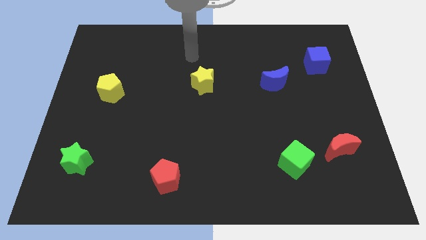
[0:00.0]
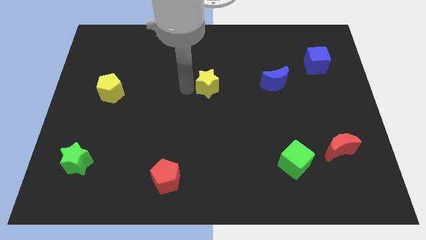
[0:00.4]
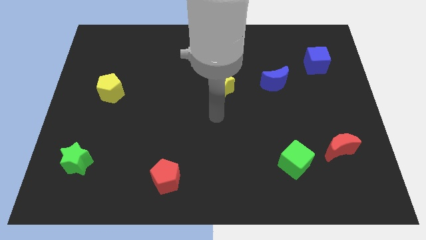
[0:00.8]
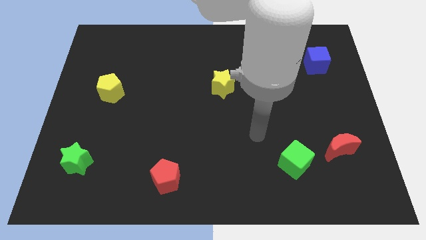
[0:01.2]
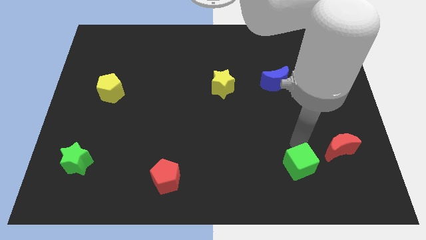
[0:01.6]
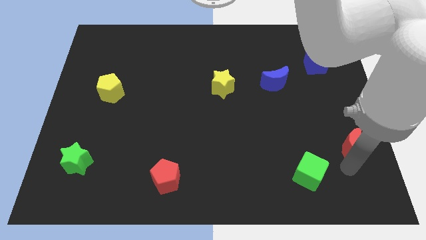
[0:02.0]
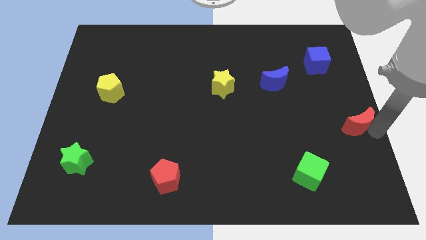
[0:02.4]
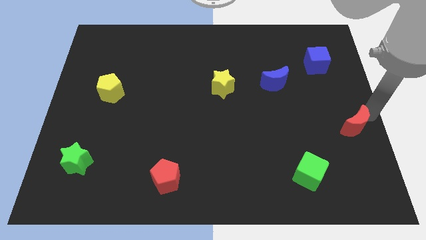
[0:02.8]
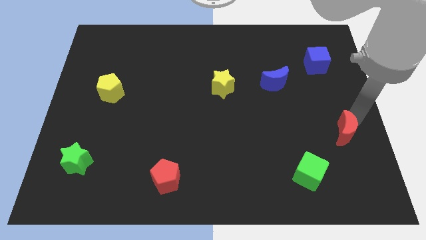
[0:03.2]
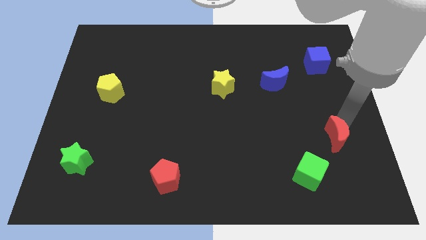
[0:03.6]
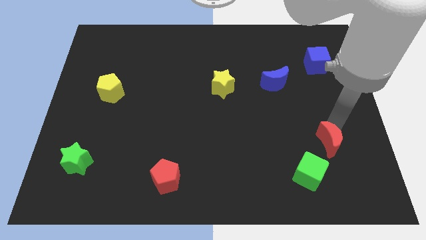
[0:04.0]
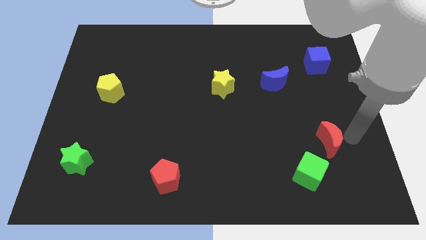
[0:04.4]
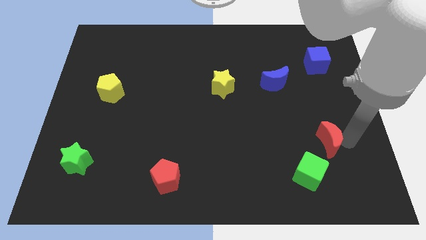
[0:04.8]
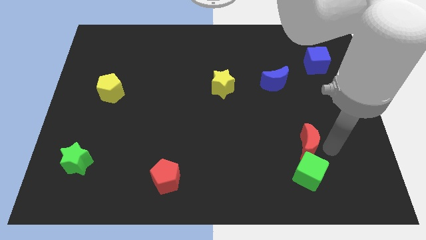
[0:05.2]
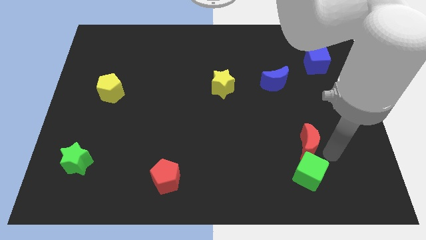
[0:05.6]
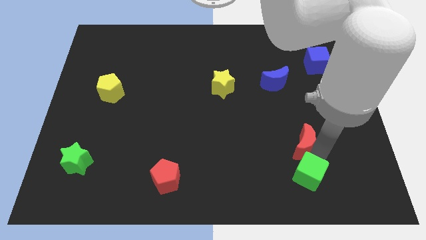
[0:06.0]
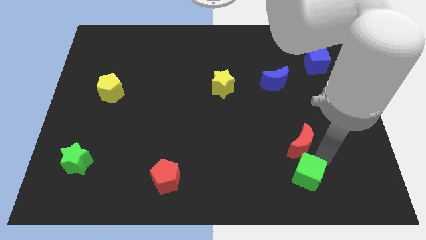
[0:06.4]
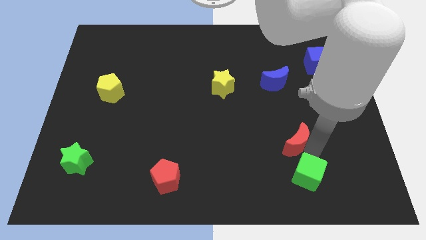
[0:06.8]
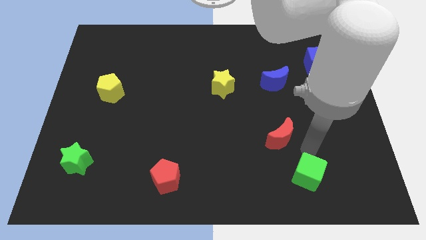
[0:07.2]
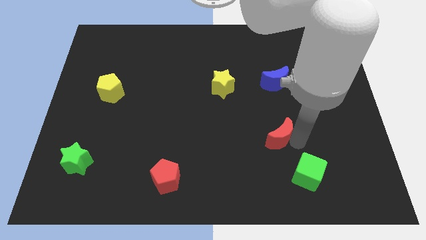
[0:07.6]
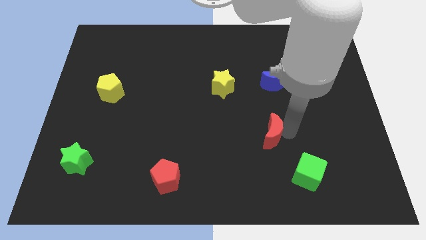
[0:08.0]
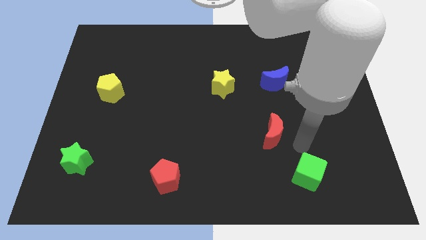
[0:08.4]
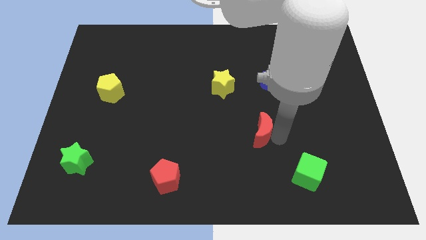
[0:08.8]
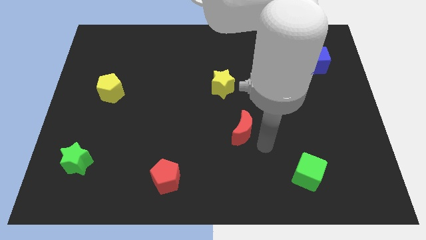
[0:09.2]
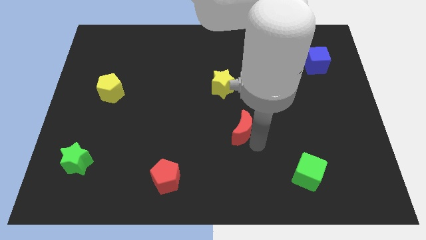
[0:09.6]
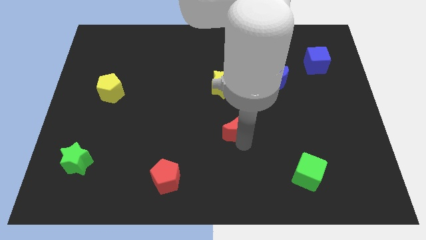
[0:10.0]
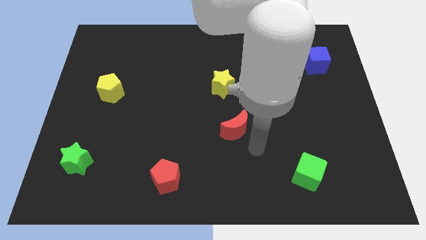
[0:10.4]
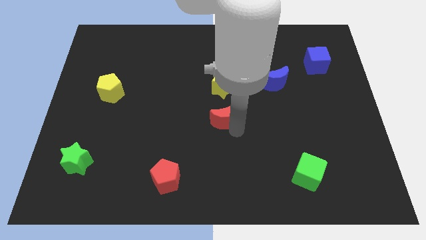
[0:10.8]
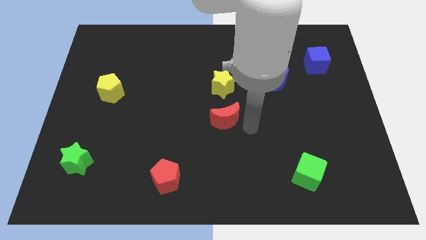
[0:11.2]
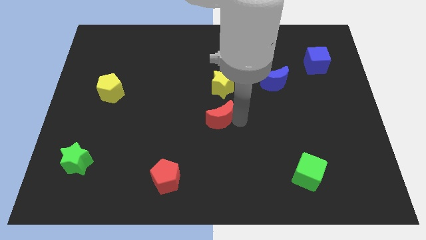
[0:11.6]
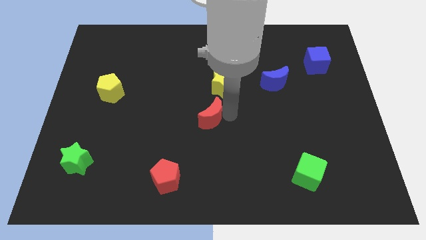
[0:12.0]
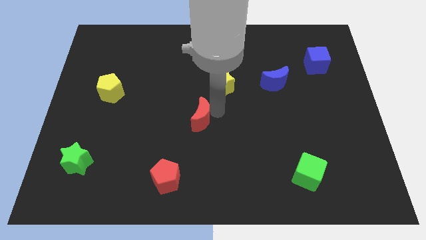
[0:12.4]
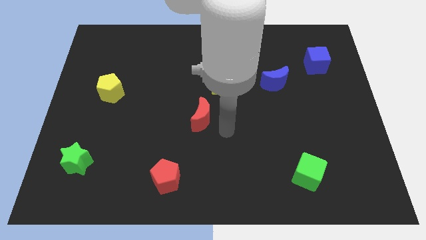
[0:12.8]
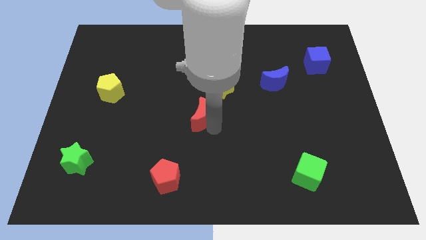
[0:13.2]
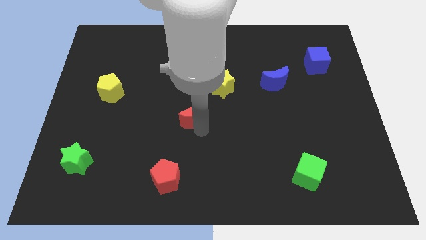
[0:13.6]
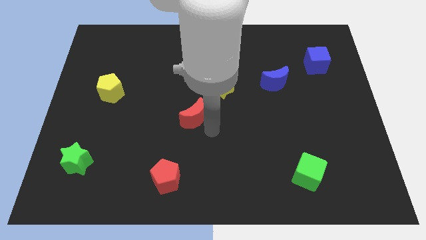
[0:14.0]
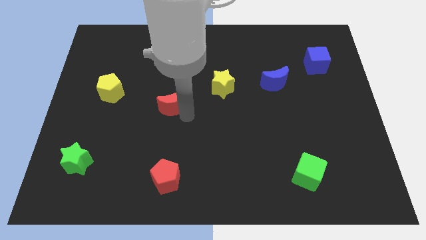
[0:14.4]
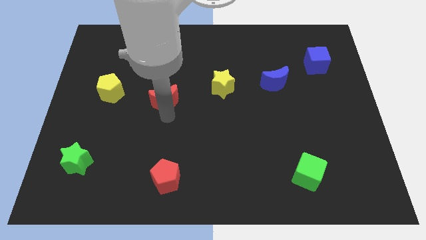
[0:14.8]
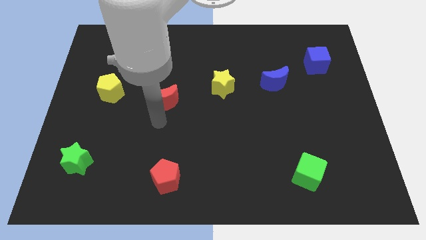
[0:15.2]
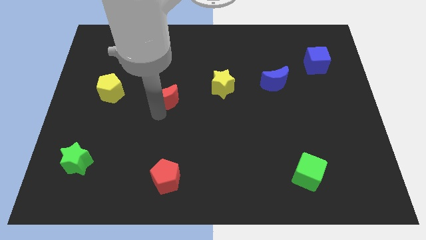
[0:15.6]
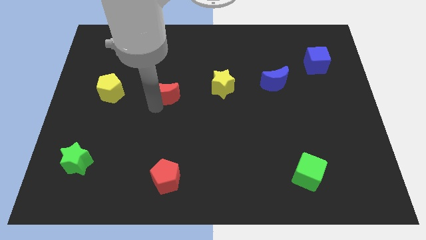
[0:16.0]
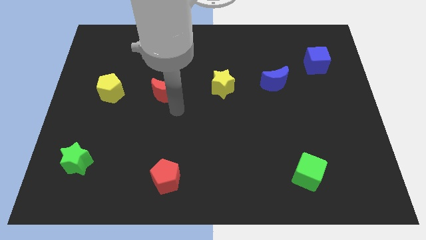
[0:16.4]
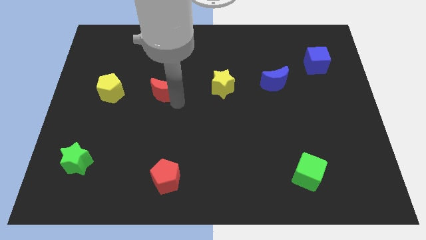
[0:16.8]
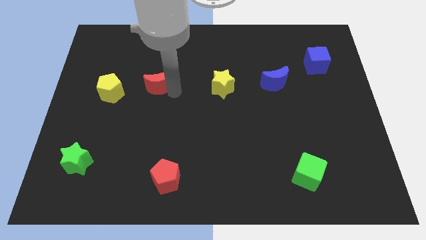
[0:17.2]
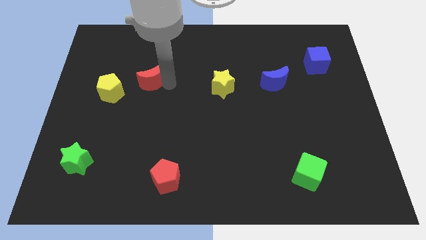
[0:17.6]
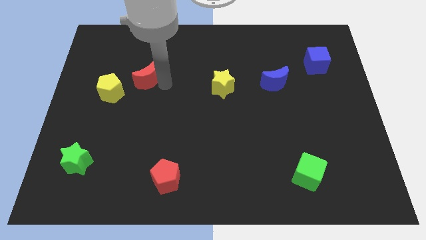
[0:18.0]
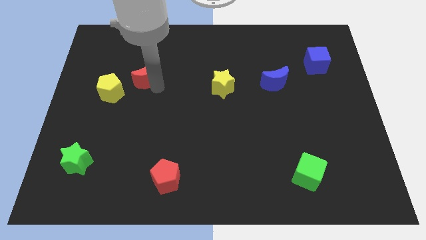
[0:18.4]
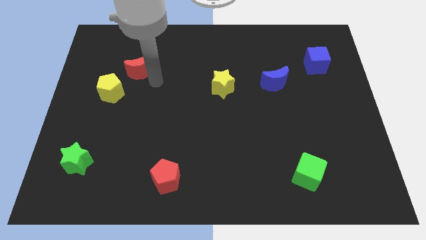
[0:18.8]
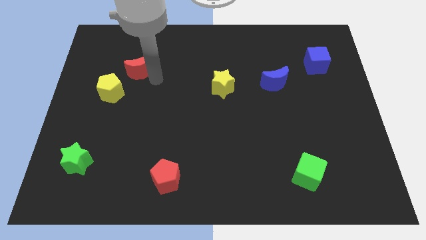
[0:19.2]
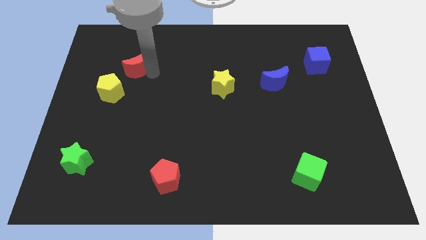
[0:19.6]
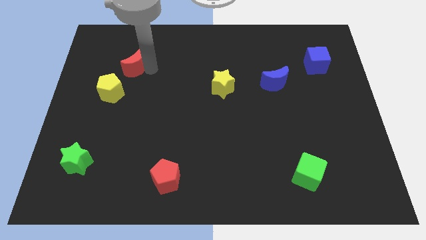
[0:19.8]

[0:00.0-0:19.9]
push the red moon to the top side of the yellow pentagon

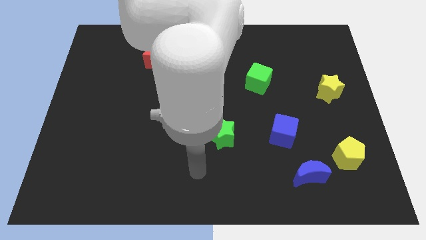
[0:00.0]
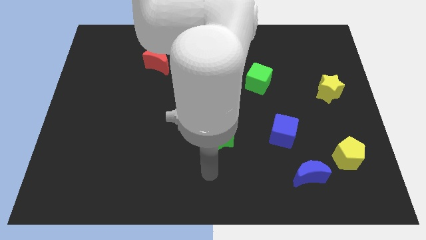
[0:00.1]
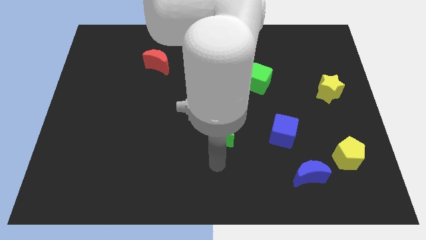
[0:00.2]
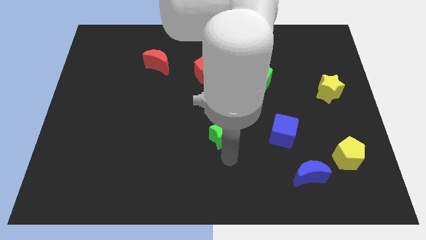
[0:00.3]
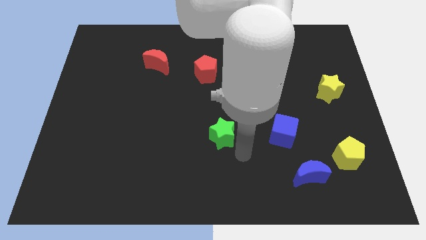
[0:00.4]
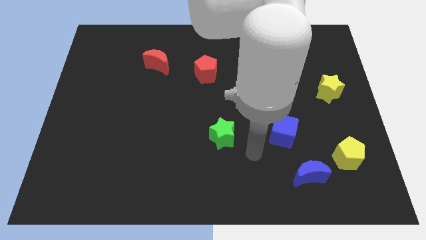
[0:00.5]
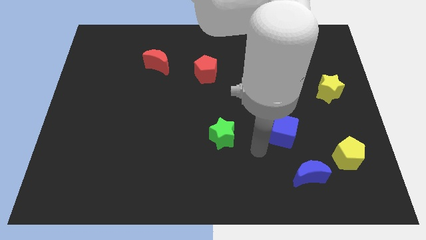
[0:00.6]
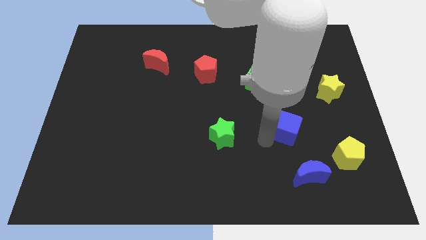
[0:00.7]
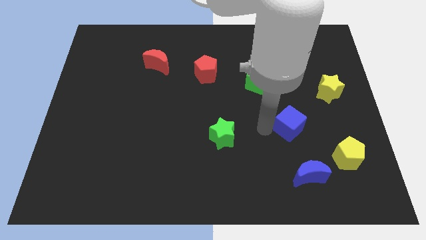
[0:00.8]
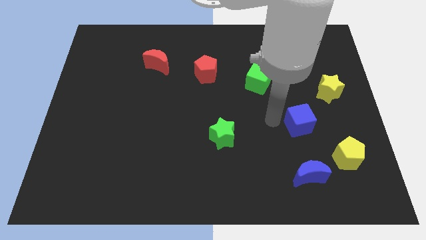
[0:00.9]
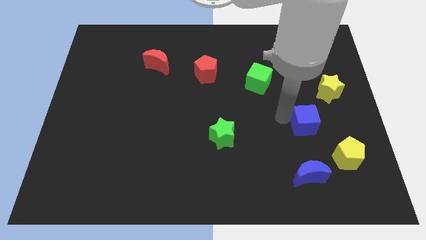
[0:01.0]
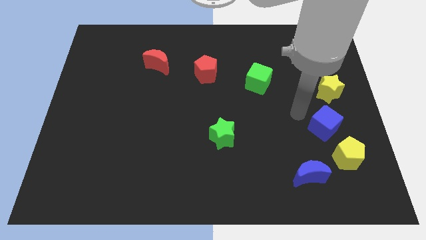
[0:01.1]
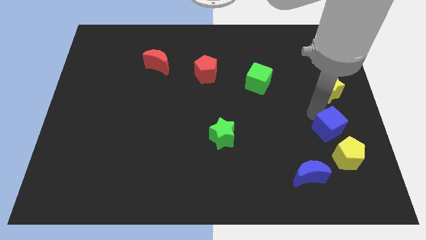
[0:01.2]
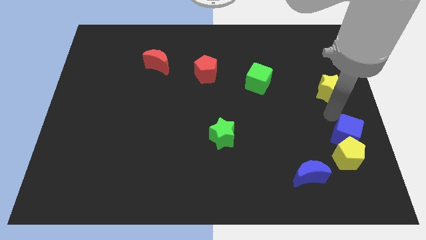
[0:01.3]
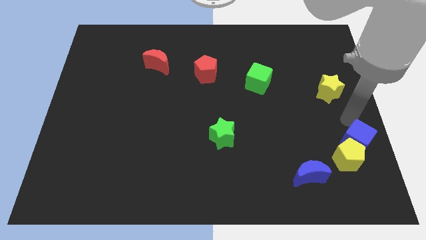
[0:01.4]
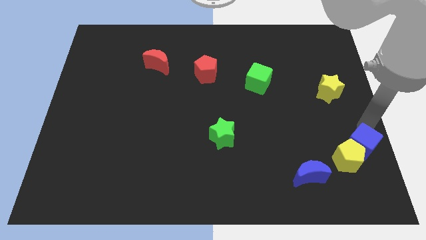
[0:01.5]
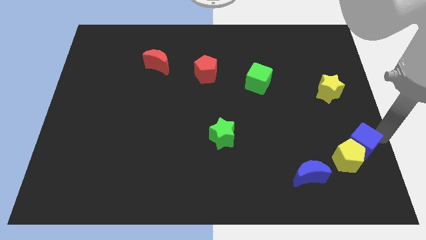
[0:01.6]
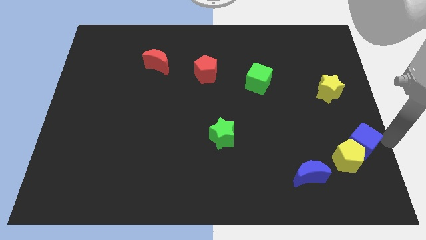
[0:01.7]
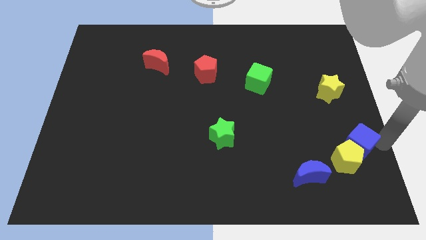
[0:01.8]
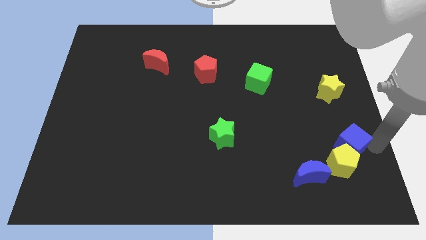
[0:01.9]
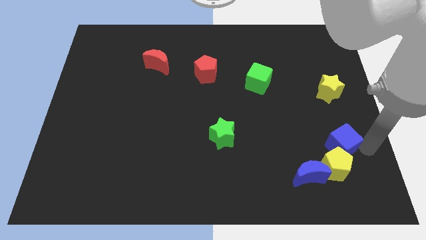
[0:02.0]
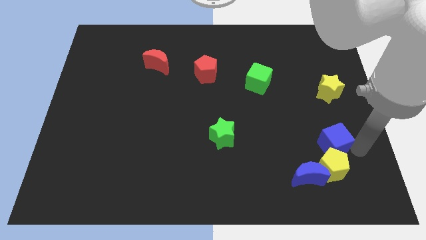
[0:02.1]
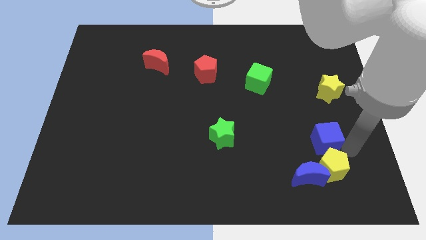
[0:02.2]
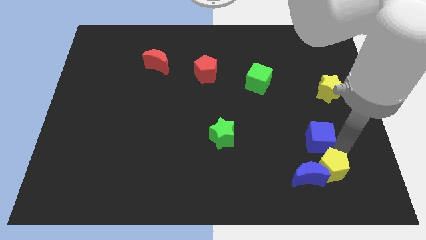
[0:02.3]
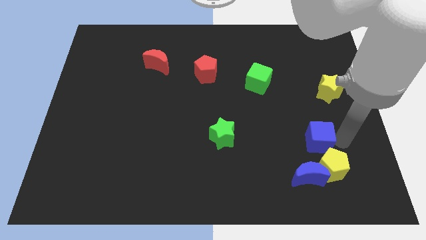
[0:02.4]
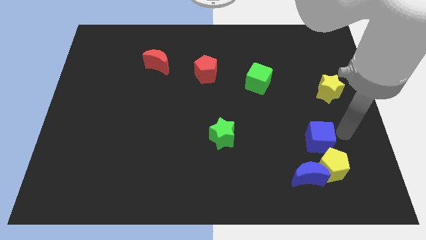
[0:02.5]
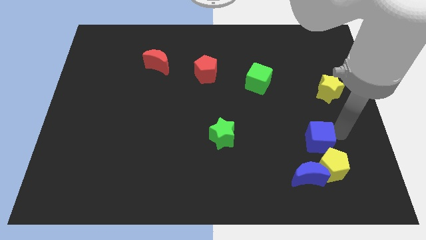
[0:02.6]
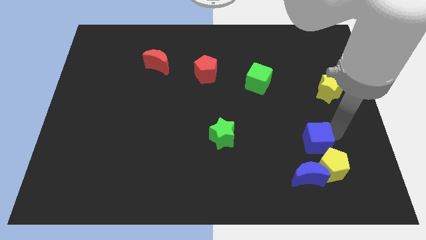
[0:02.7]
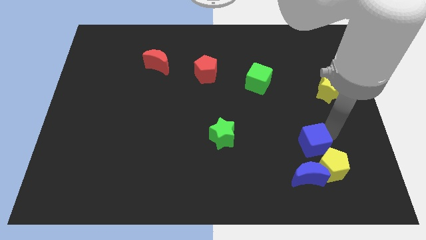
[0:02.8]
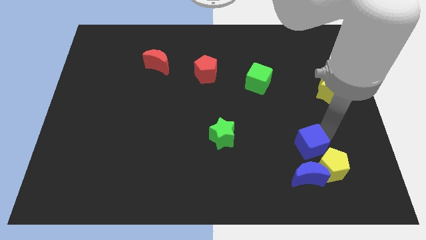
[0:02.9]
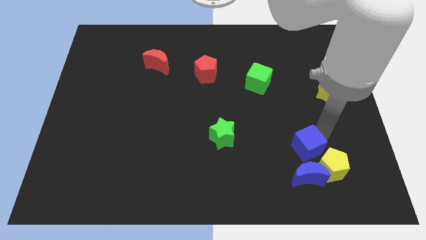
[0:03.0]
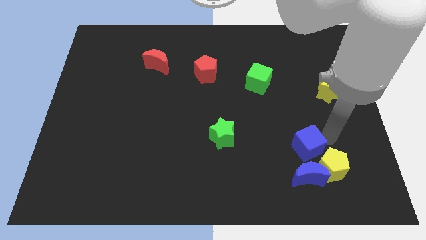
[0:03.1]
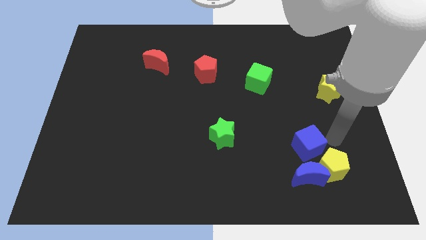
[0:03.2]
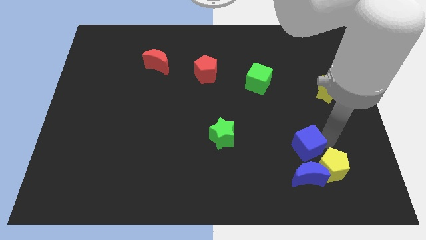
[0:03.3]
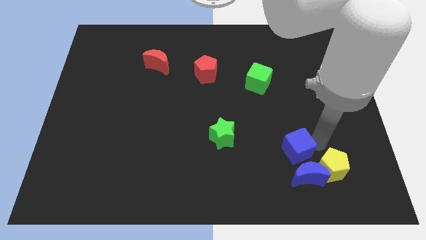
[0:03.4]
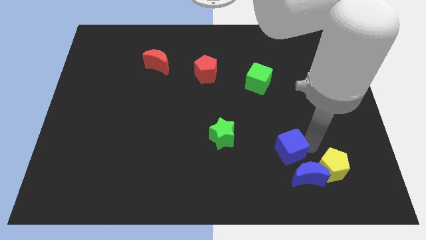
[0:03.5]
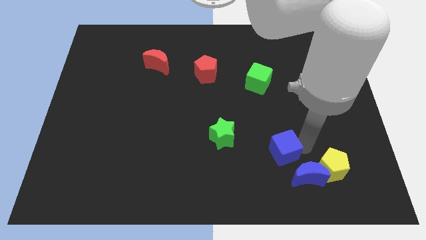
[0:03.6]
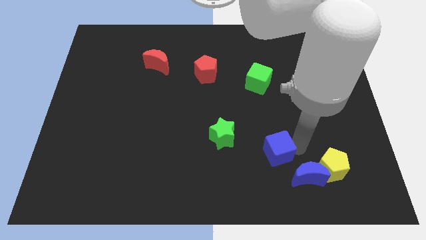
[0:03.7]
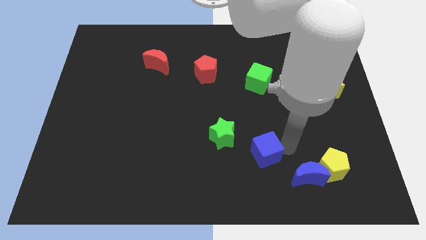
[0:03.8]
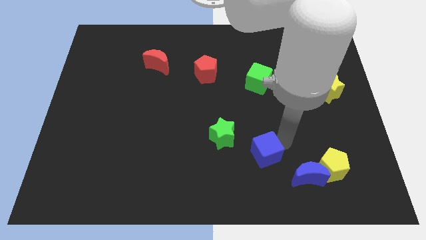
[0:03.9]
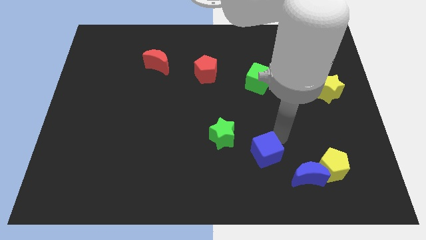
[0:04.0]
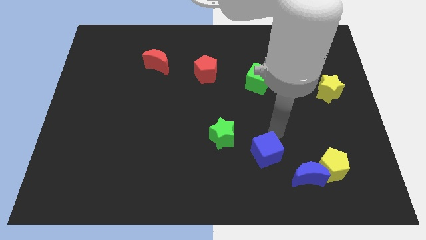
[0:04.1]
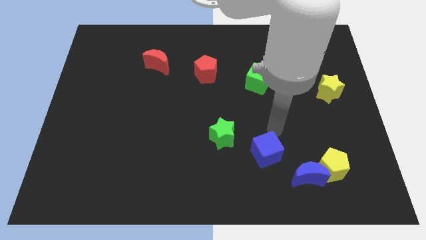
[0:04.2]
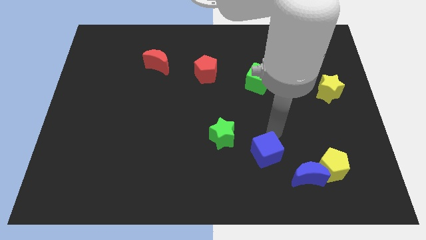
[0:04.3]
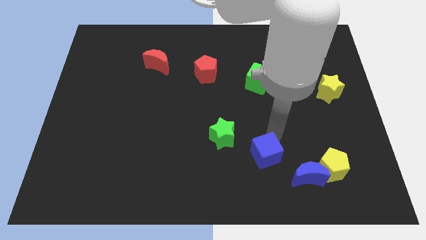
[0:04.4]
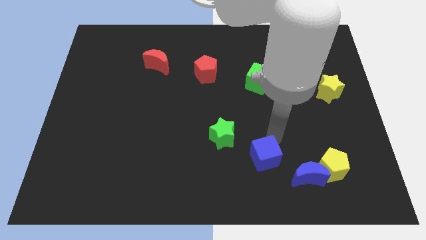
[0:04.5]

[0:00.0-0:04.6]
push the blue cube to the left side of the blue moon
